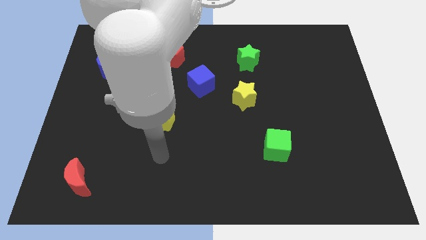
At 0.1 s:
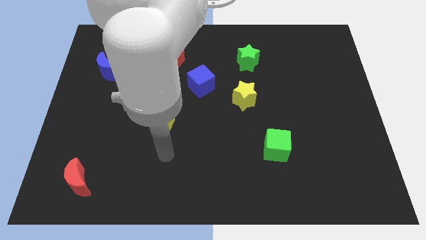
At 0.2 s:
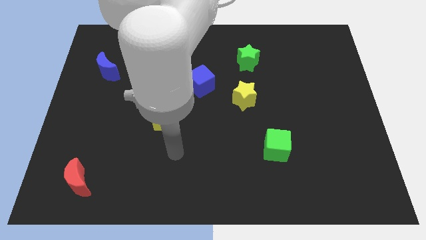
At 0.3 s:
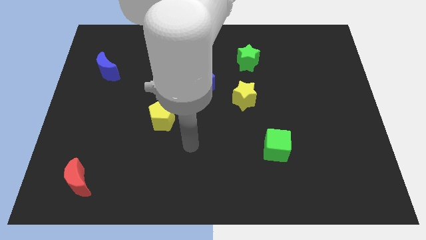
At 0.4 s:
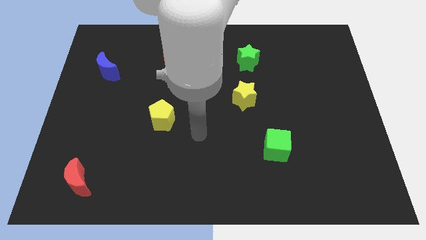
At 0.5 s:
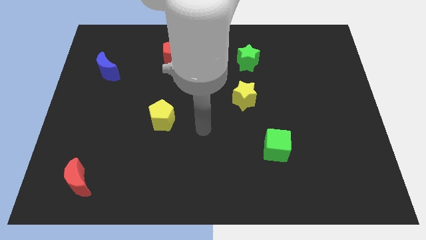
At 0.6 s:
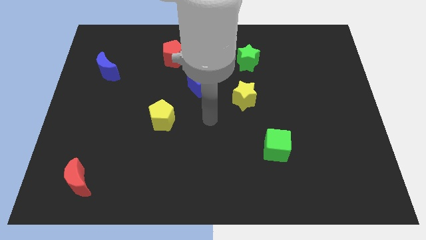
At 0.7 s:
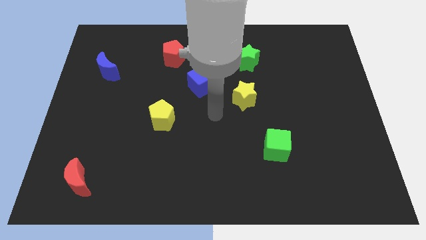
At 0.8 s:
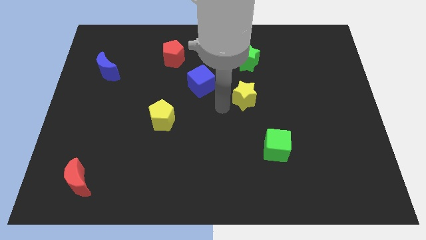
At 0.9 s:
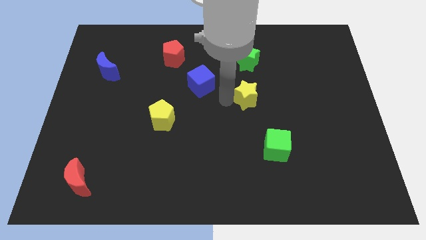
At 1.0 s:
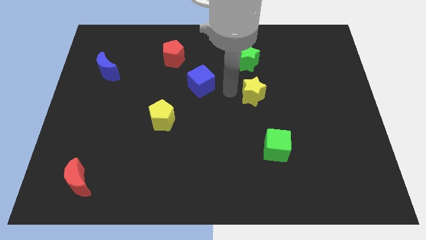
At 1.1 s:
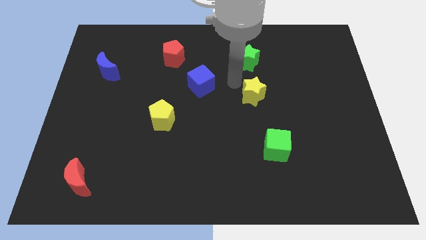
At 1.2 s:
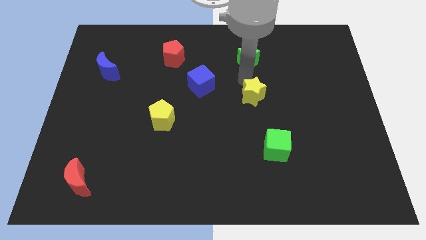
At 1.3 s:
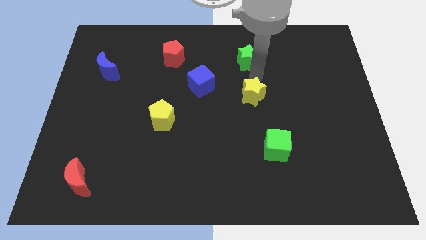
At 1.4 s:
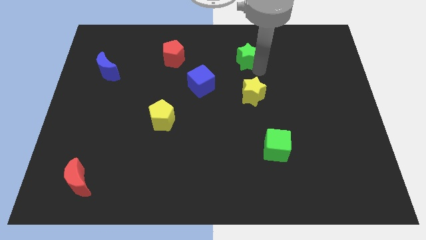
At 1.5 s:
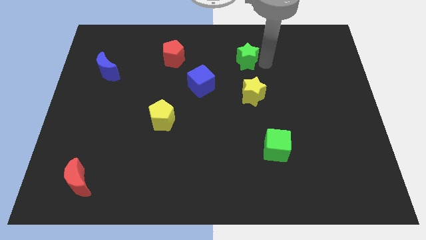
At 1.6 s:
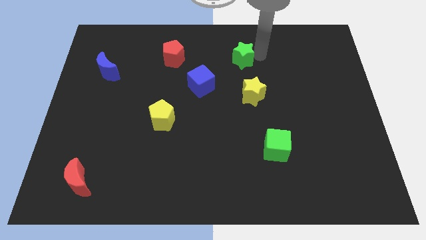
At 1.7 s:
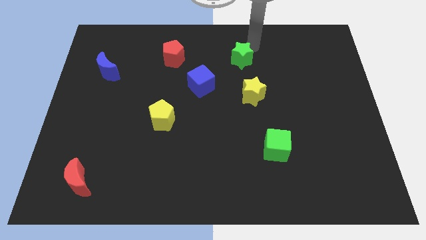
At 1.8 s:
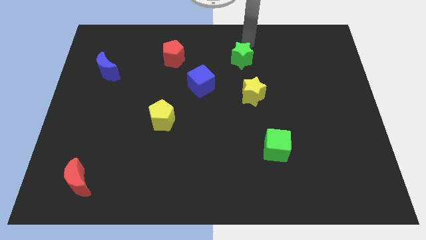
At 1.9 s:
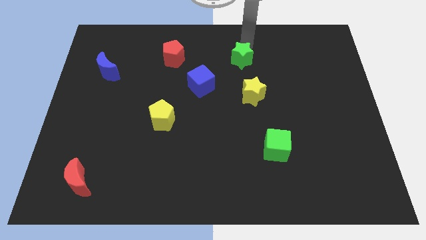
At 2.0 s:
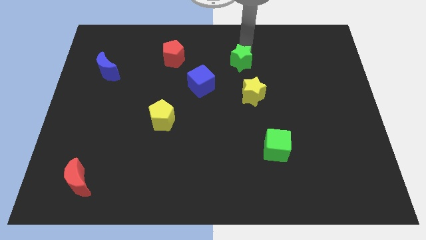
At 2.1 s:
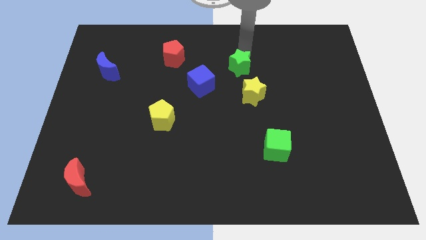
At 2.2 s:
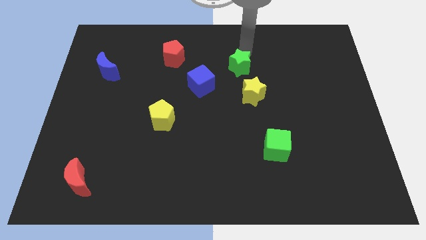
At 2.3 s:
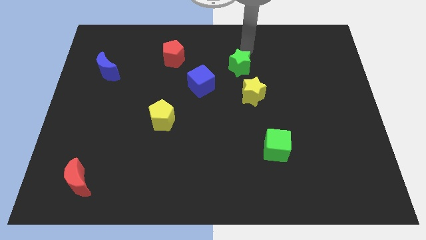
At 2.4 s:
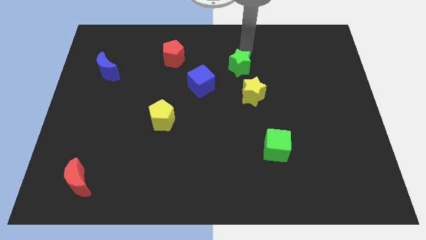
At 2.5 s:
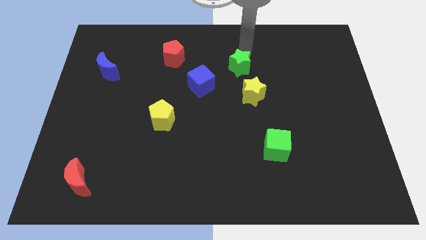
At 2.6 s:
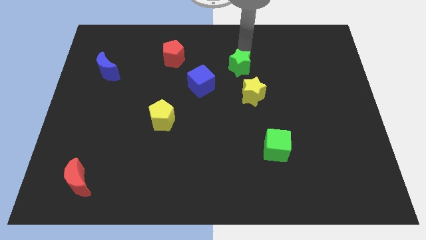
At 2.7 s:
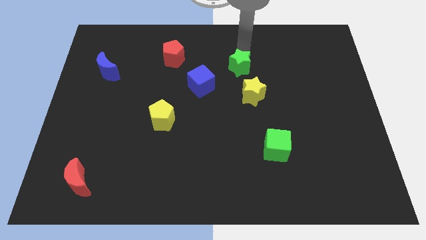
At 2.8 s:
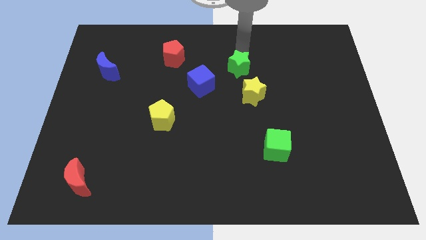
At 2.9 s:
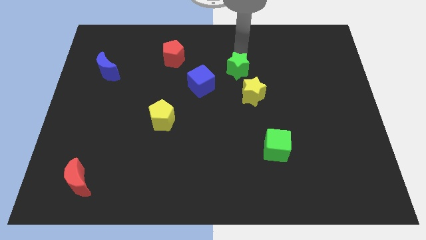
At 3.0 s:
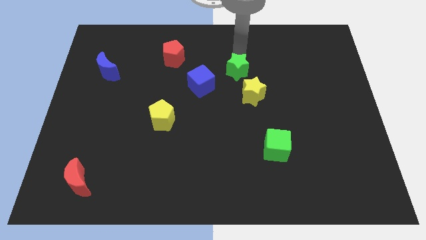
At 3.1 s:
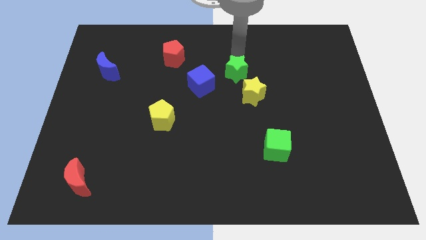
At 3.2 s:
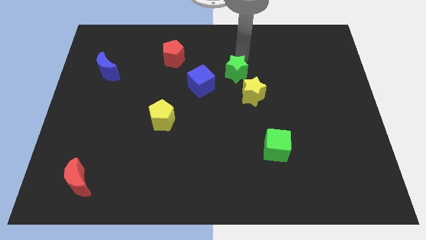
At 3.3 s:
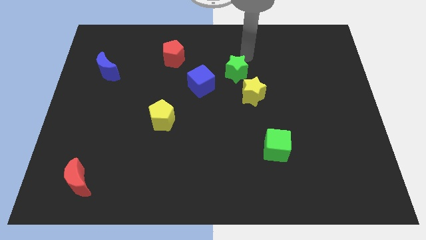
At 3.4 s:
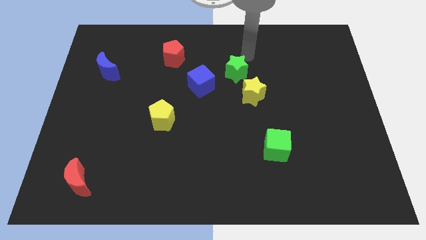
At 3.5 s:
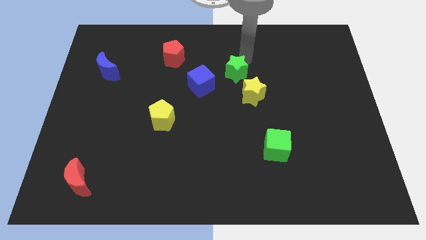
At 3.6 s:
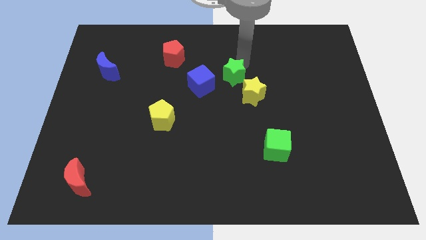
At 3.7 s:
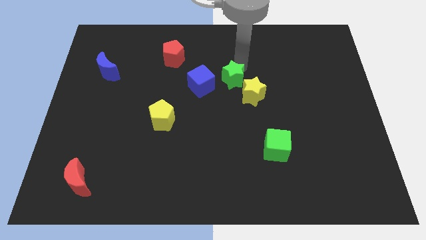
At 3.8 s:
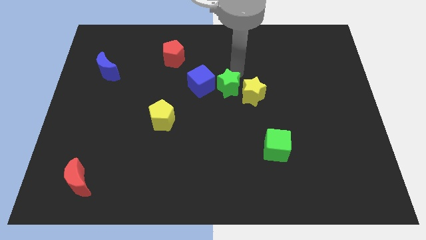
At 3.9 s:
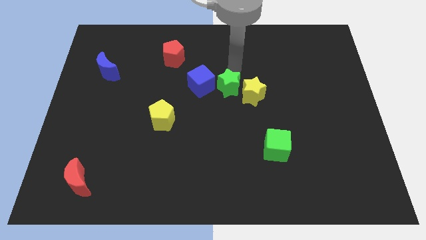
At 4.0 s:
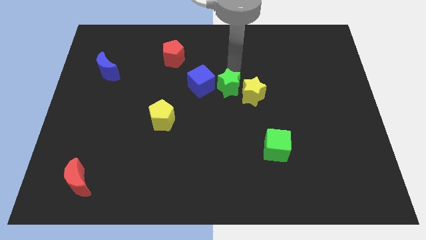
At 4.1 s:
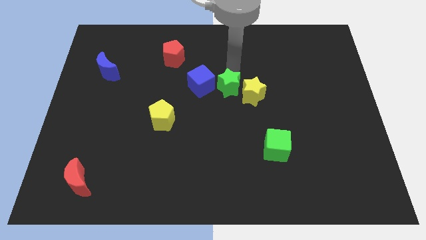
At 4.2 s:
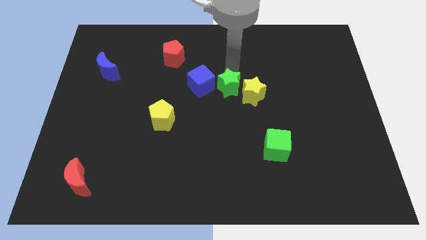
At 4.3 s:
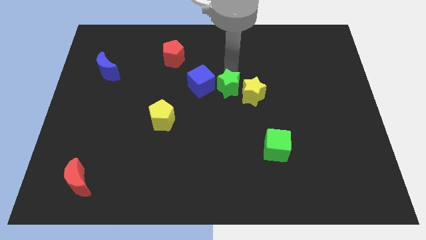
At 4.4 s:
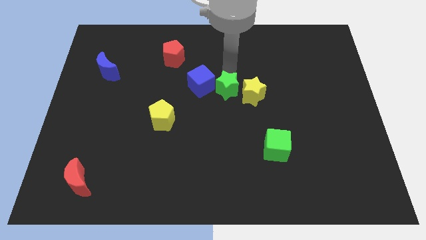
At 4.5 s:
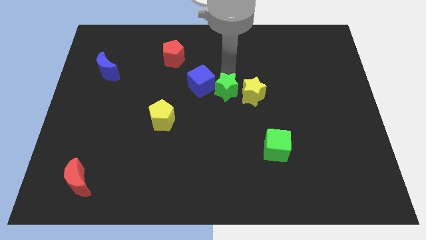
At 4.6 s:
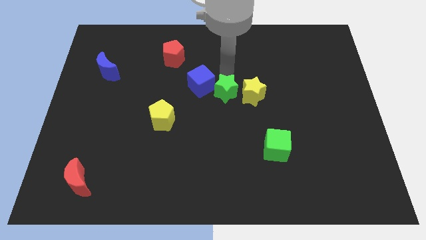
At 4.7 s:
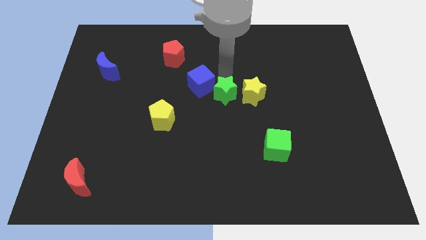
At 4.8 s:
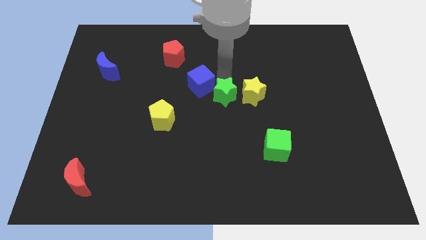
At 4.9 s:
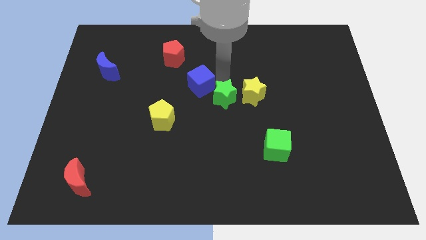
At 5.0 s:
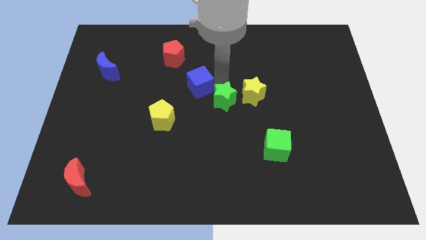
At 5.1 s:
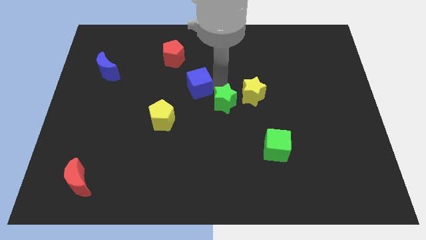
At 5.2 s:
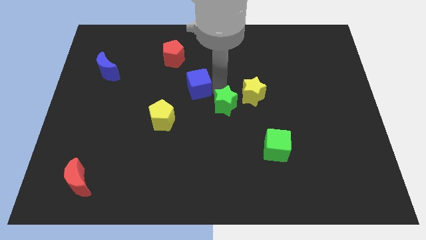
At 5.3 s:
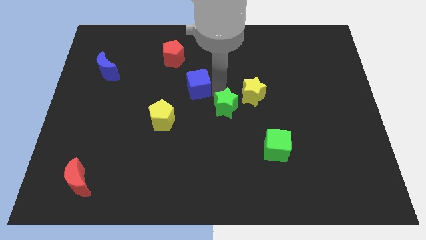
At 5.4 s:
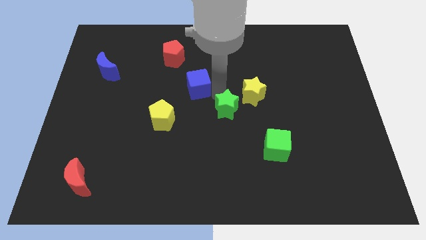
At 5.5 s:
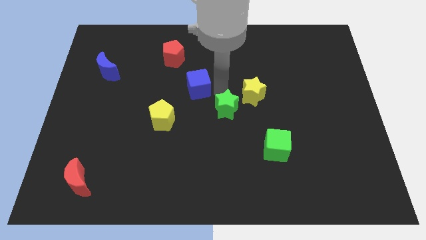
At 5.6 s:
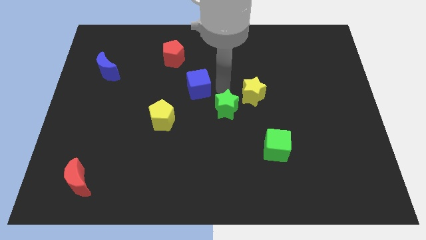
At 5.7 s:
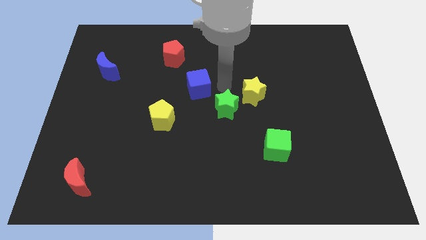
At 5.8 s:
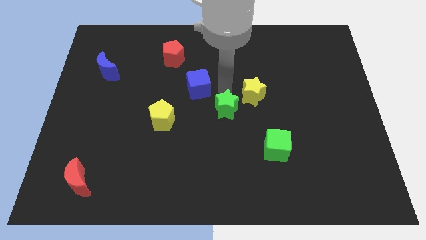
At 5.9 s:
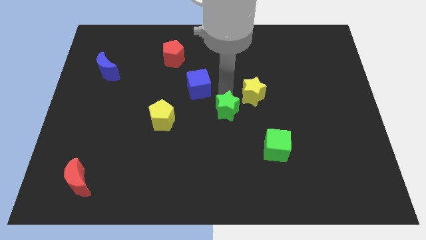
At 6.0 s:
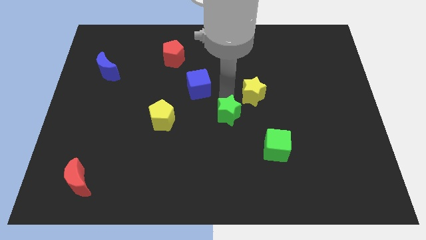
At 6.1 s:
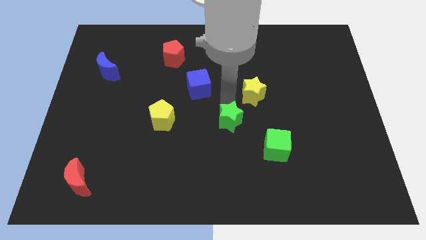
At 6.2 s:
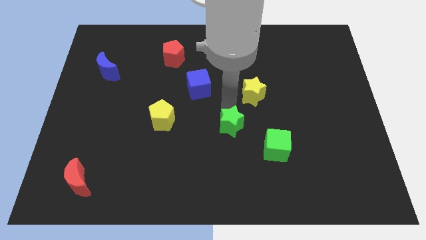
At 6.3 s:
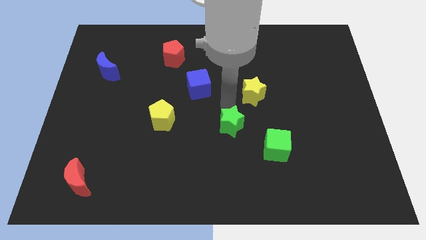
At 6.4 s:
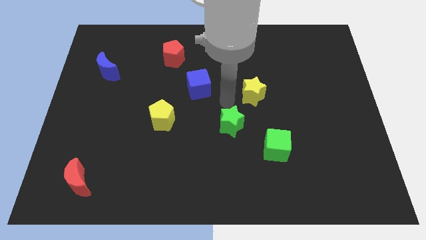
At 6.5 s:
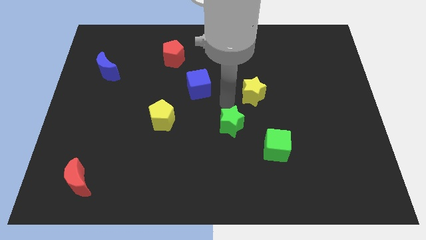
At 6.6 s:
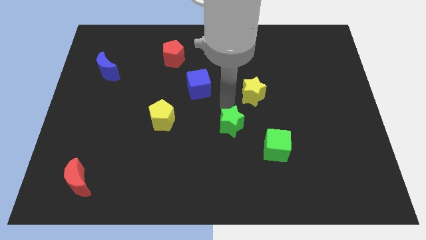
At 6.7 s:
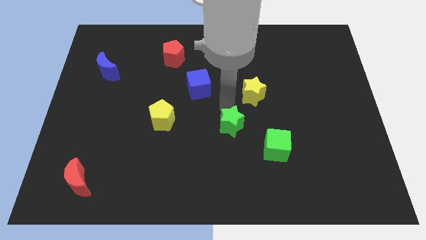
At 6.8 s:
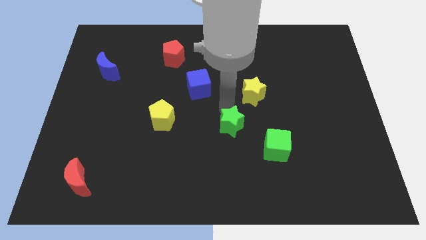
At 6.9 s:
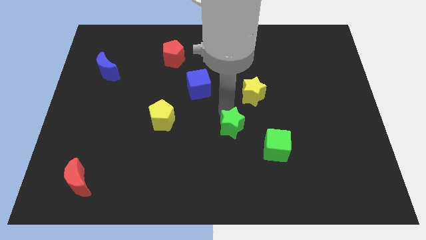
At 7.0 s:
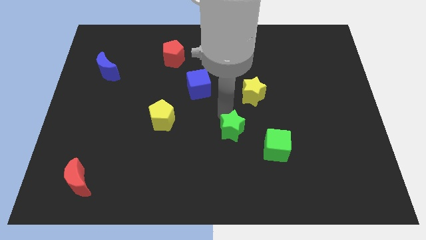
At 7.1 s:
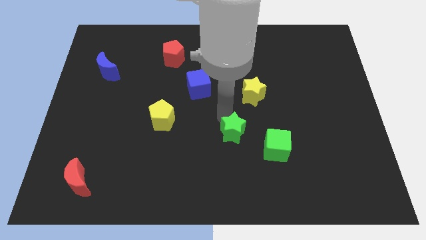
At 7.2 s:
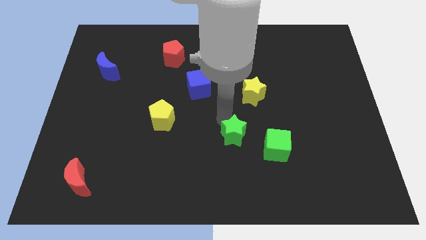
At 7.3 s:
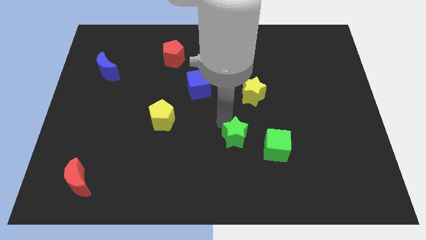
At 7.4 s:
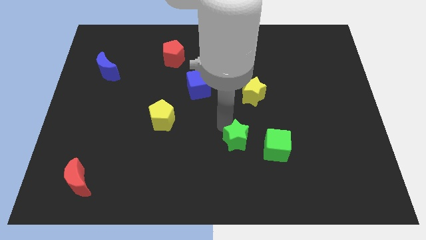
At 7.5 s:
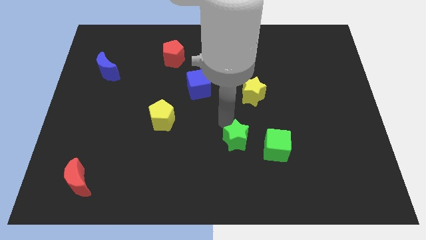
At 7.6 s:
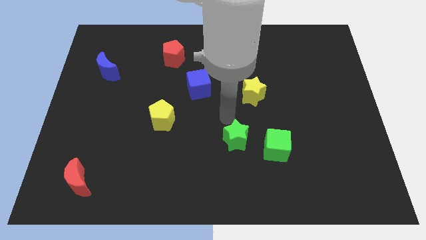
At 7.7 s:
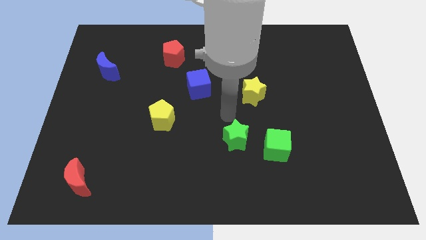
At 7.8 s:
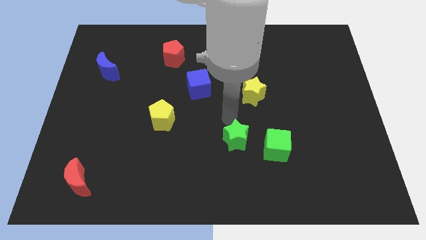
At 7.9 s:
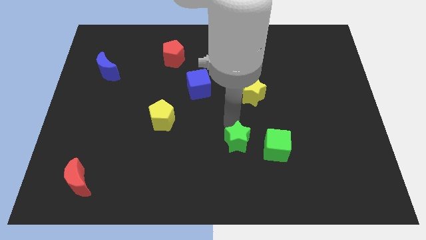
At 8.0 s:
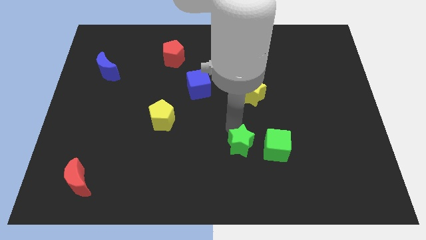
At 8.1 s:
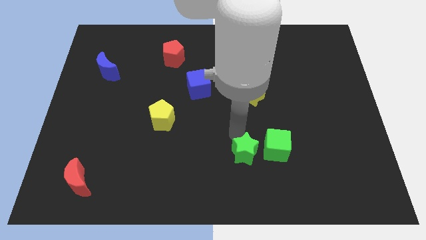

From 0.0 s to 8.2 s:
move the green star to the bottom left side of the green cube
